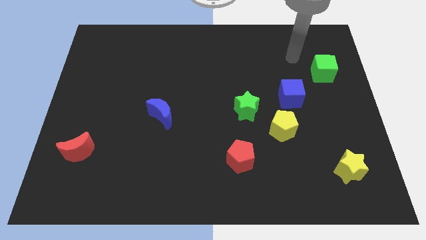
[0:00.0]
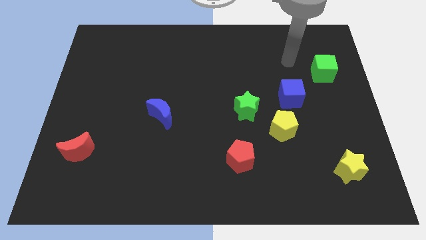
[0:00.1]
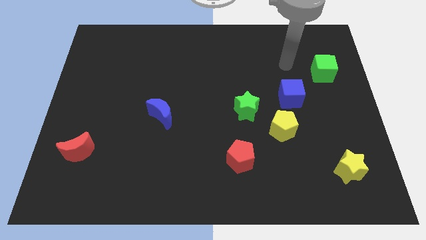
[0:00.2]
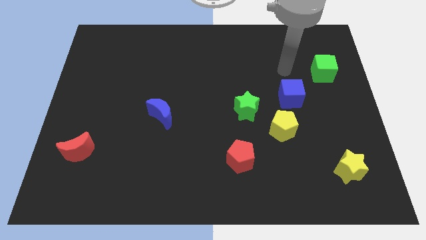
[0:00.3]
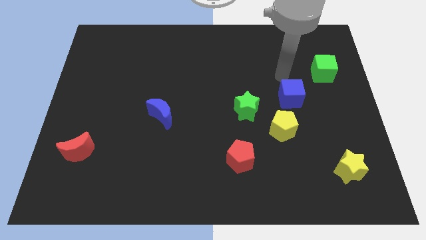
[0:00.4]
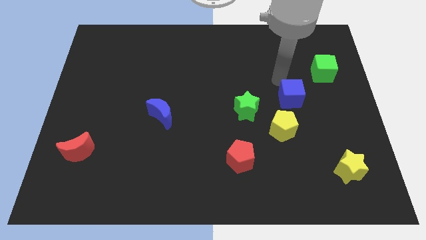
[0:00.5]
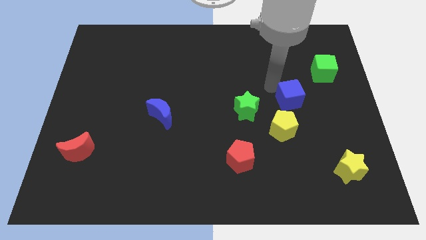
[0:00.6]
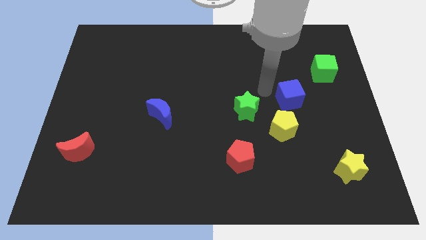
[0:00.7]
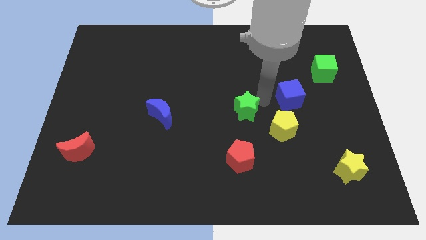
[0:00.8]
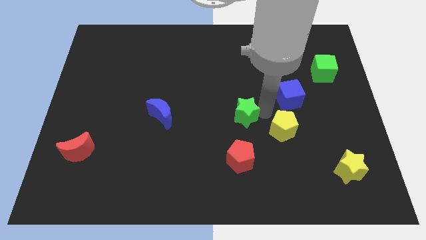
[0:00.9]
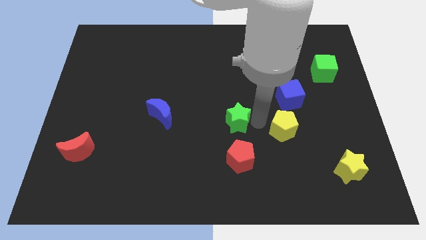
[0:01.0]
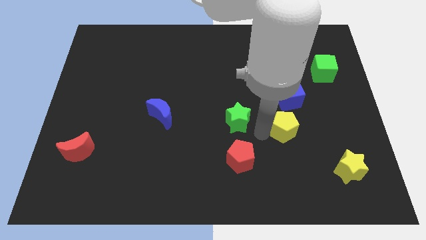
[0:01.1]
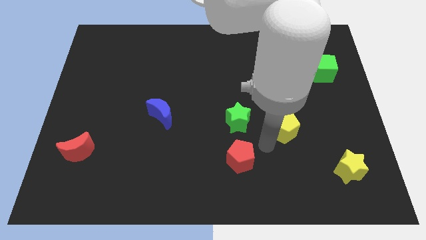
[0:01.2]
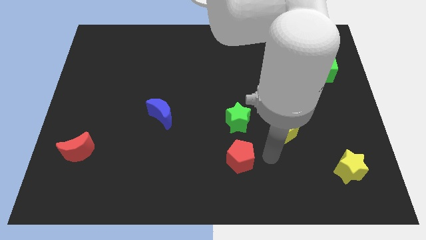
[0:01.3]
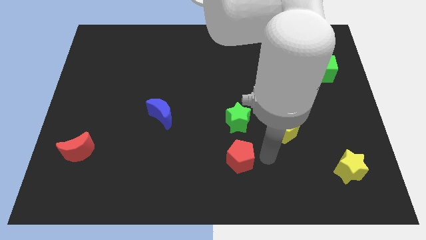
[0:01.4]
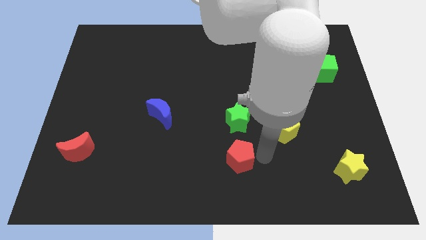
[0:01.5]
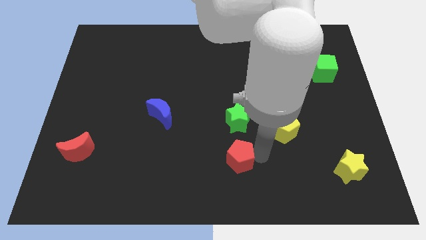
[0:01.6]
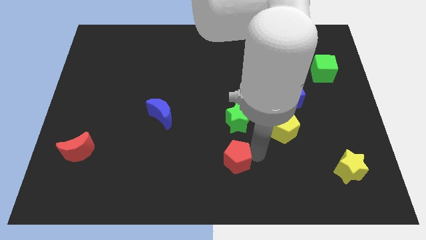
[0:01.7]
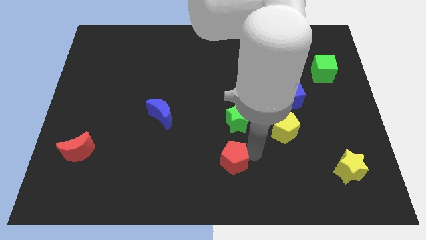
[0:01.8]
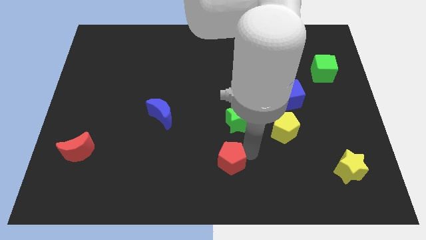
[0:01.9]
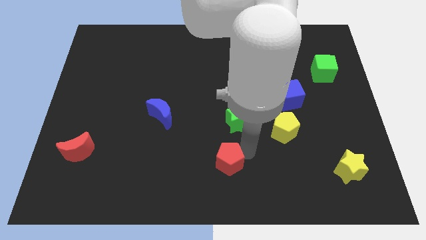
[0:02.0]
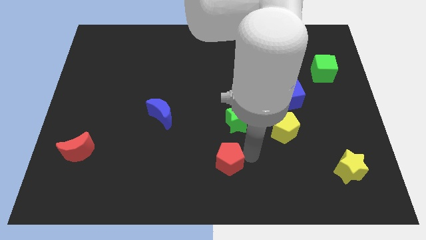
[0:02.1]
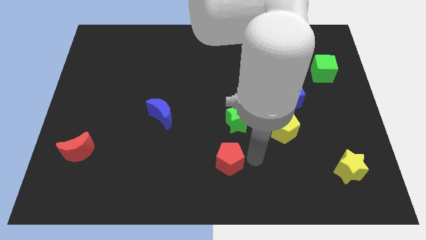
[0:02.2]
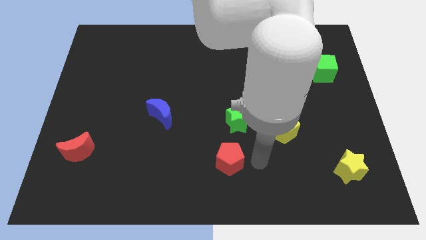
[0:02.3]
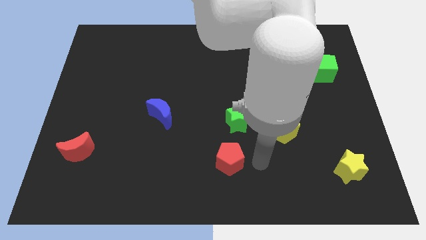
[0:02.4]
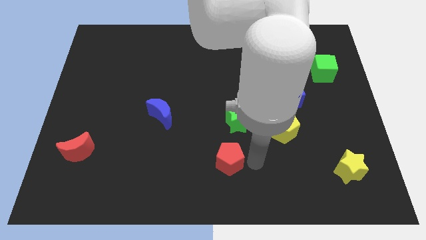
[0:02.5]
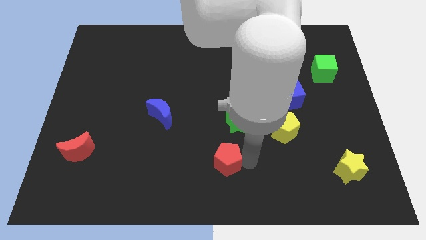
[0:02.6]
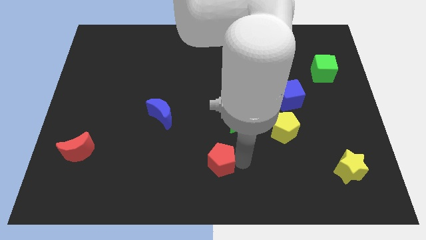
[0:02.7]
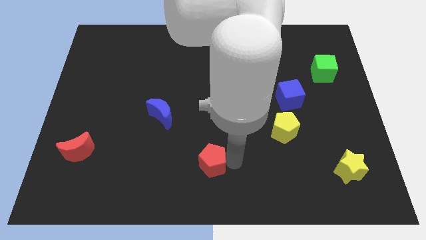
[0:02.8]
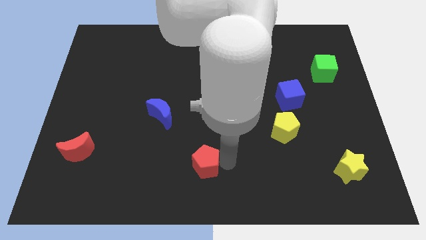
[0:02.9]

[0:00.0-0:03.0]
slightly move the red pentagon to the left

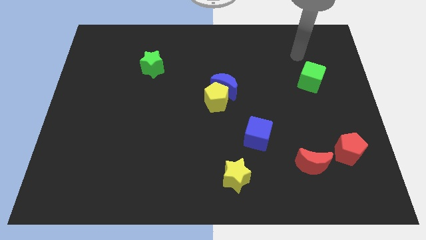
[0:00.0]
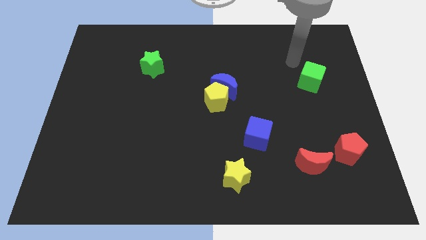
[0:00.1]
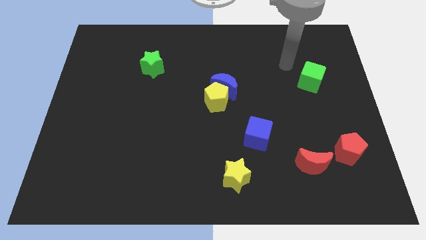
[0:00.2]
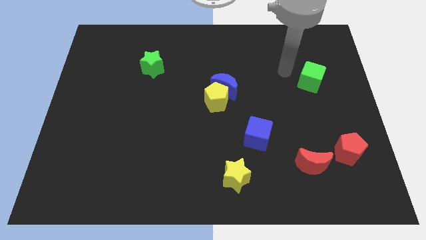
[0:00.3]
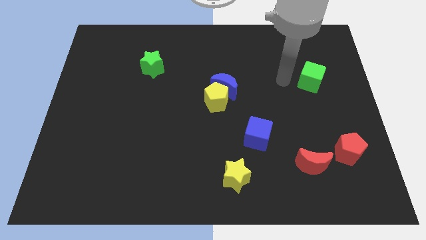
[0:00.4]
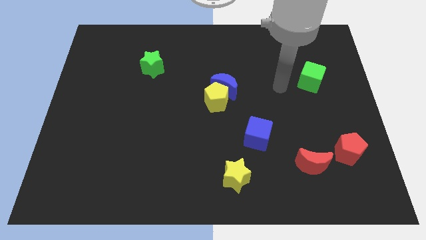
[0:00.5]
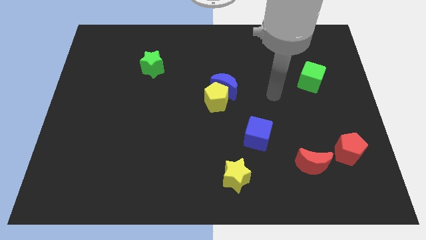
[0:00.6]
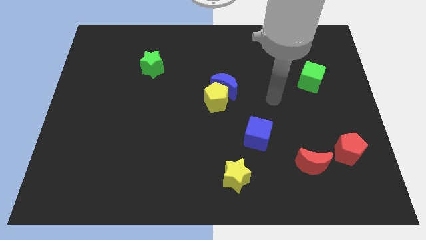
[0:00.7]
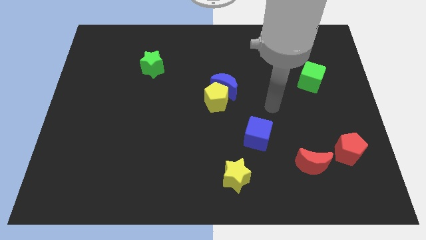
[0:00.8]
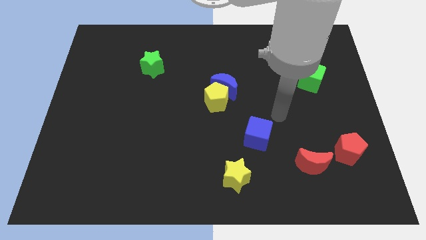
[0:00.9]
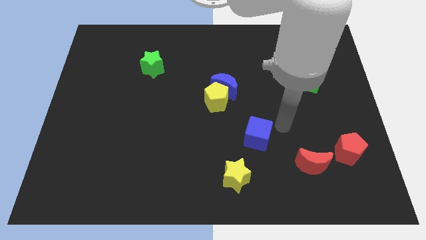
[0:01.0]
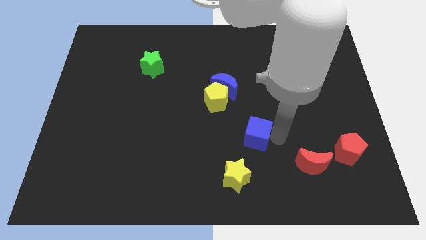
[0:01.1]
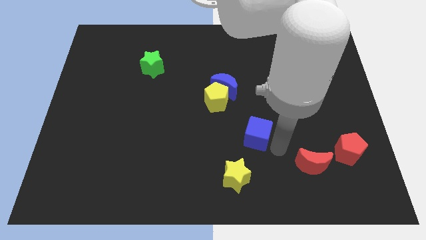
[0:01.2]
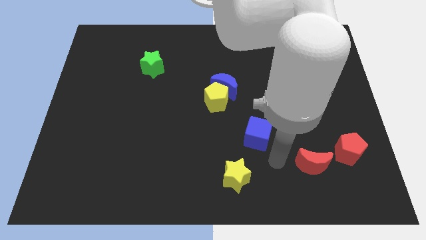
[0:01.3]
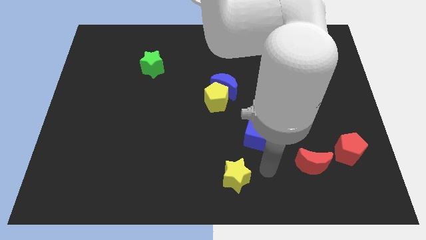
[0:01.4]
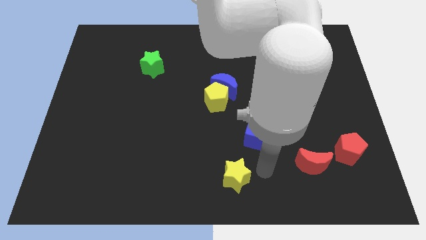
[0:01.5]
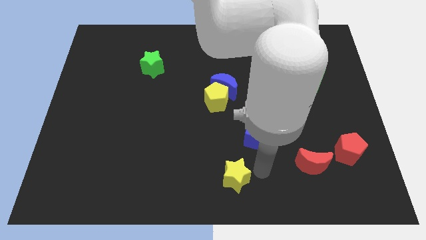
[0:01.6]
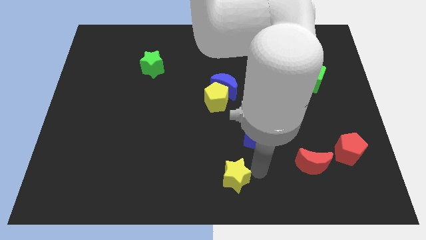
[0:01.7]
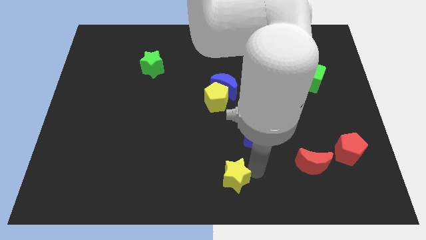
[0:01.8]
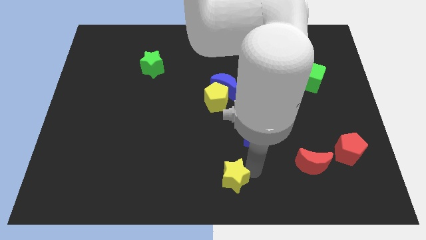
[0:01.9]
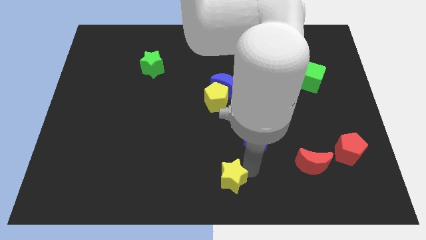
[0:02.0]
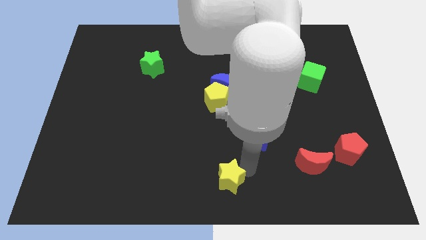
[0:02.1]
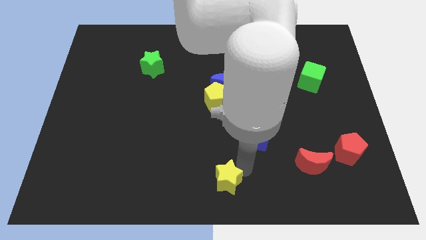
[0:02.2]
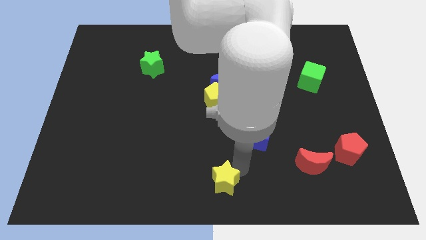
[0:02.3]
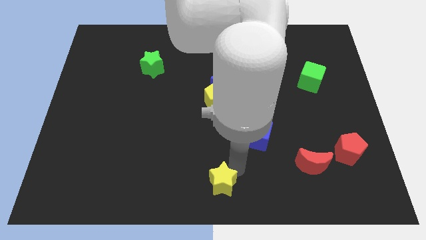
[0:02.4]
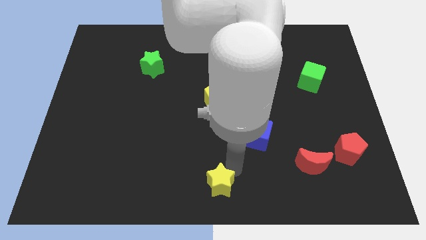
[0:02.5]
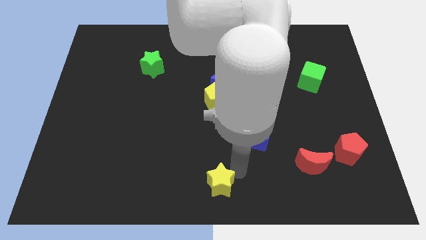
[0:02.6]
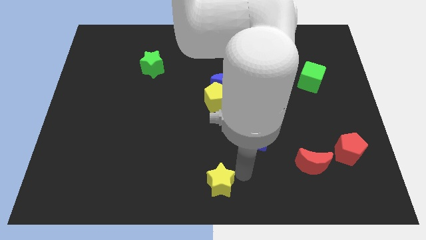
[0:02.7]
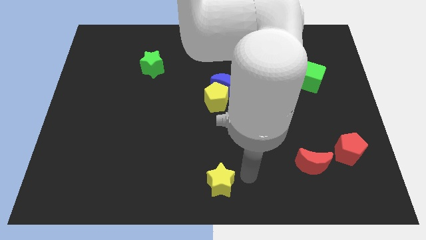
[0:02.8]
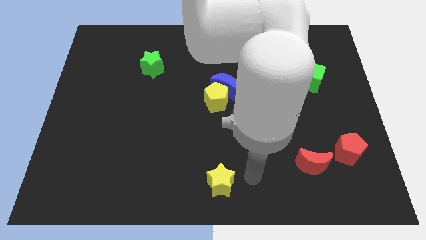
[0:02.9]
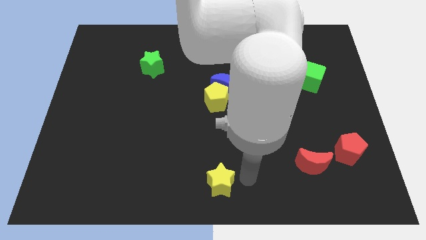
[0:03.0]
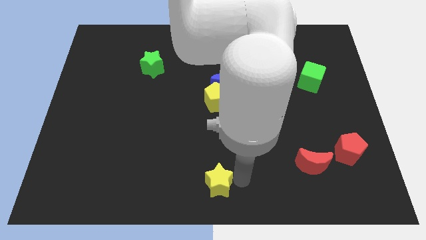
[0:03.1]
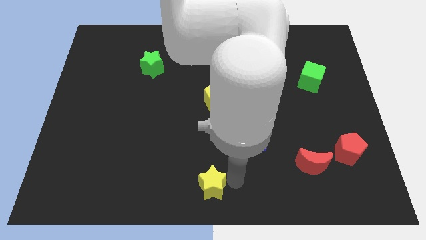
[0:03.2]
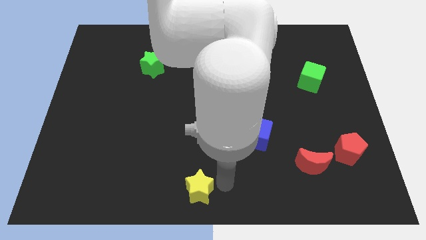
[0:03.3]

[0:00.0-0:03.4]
push the yellow star slightly to the left

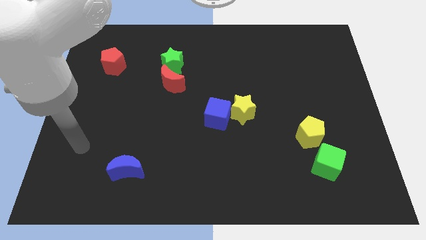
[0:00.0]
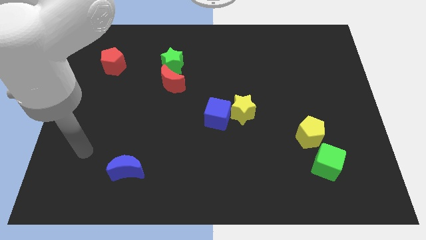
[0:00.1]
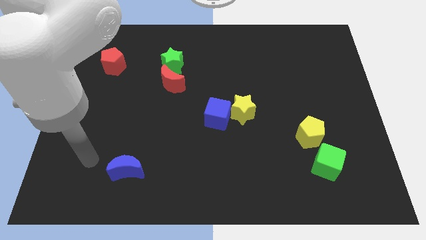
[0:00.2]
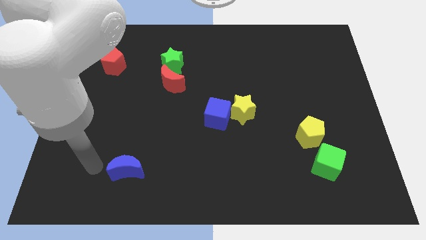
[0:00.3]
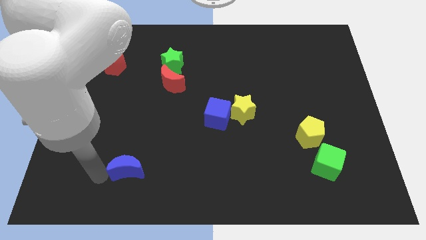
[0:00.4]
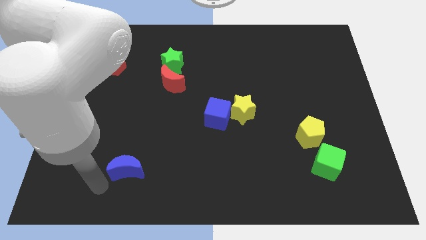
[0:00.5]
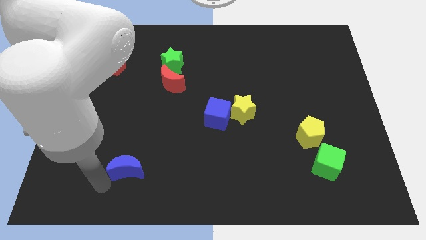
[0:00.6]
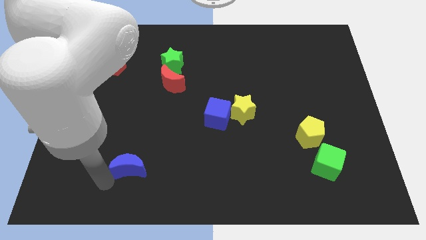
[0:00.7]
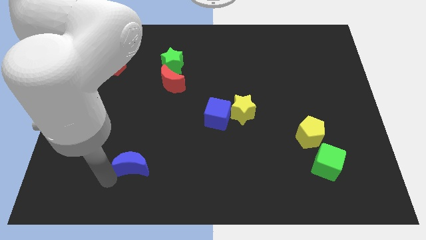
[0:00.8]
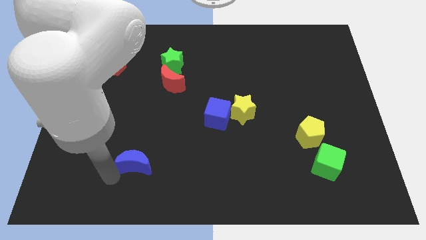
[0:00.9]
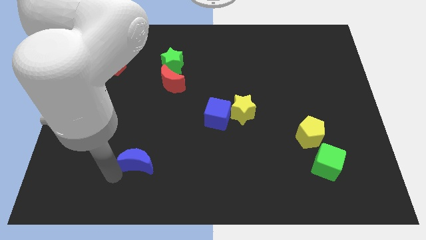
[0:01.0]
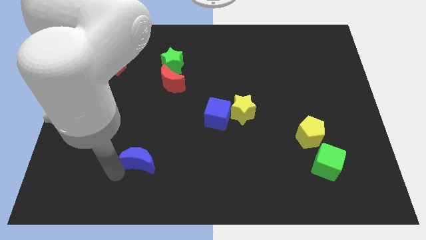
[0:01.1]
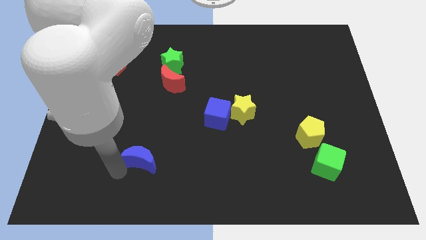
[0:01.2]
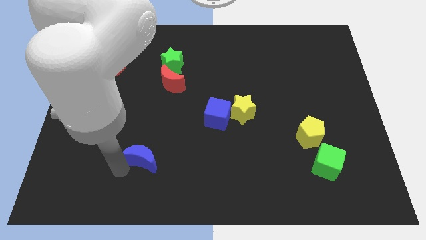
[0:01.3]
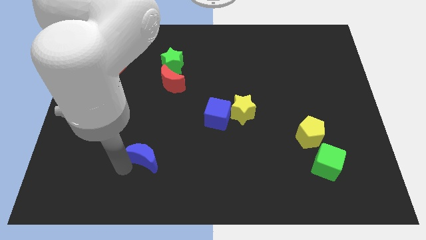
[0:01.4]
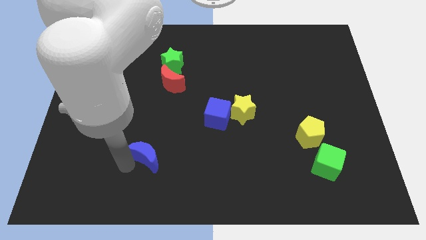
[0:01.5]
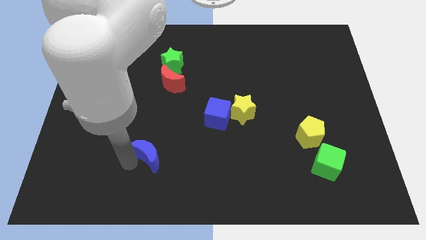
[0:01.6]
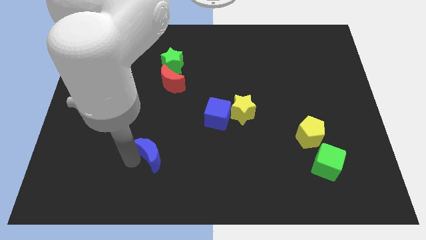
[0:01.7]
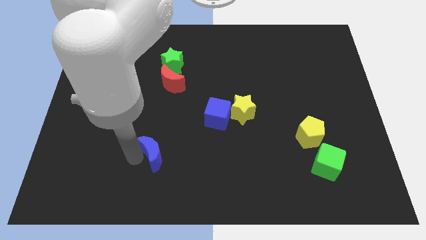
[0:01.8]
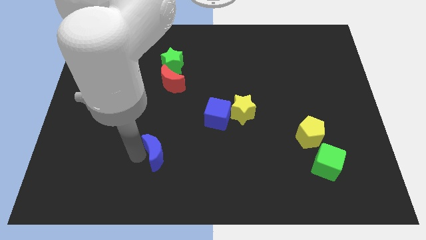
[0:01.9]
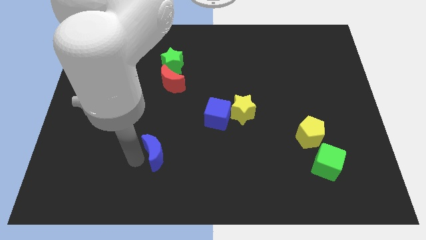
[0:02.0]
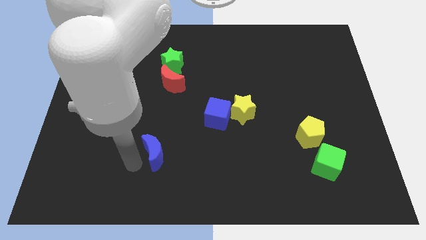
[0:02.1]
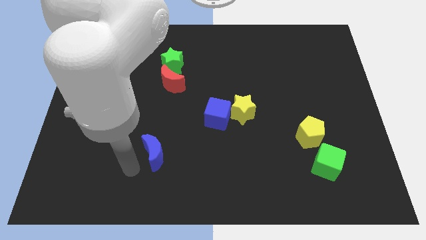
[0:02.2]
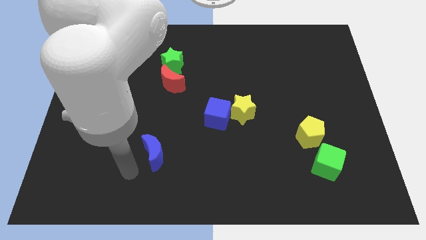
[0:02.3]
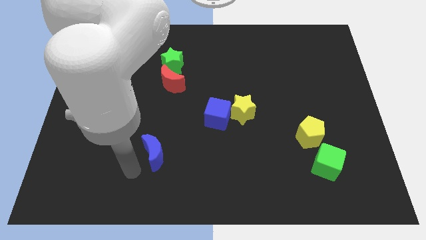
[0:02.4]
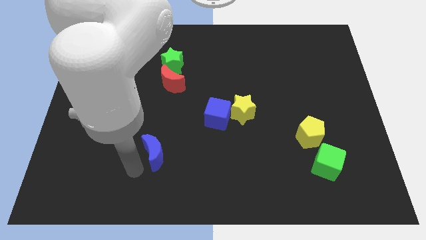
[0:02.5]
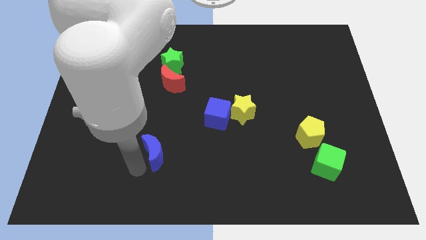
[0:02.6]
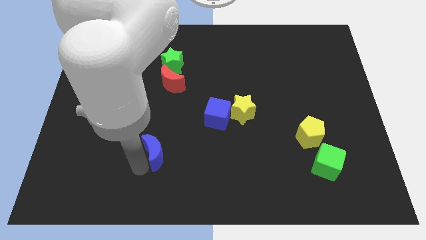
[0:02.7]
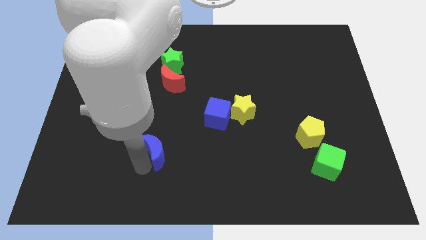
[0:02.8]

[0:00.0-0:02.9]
slightly move the blue moon diagonally up and right
